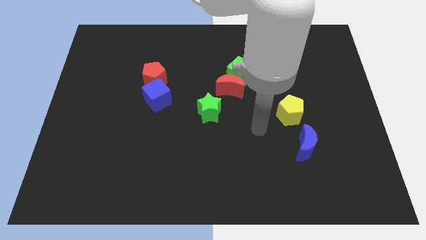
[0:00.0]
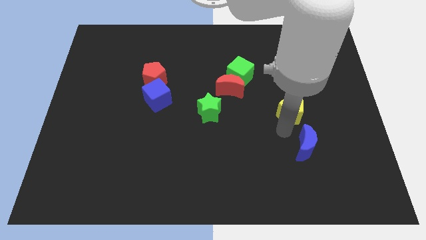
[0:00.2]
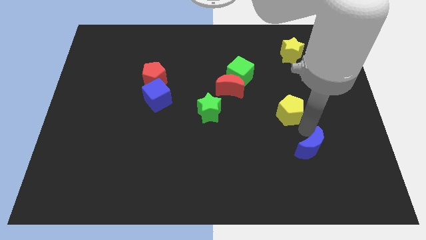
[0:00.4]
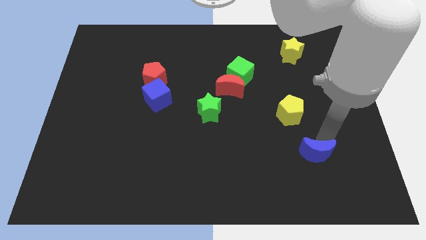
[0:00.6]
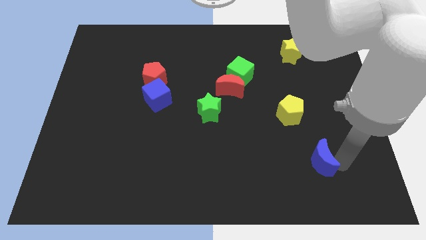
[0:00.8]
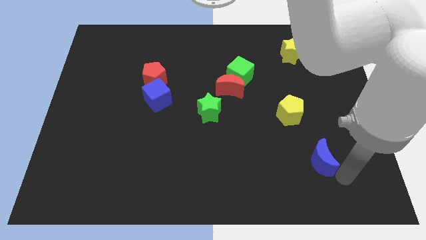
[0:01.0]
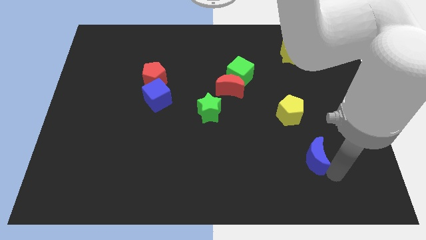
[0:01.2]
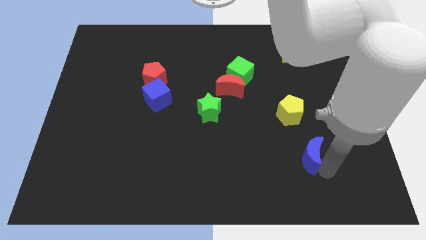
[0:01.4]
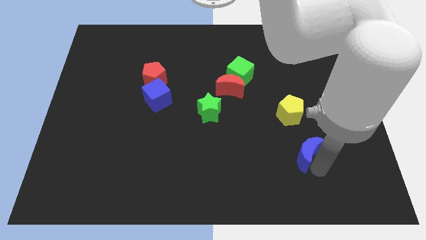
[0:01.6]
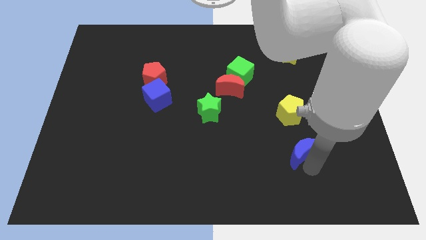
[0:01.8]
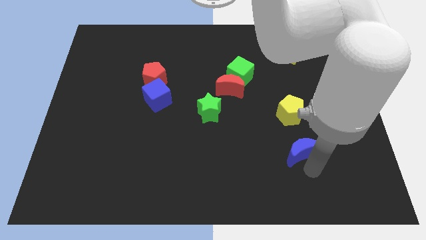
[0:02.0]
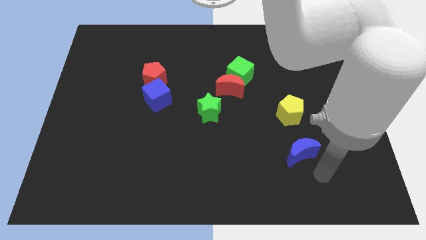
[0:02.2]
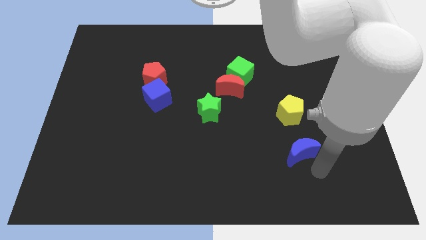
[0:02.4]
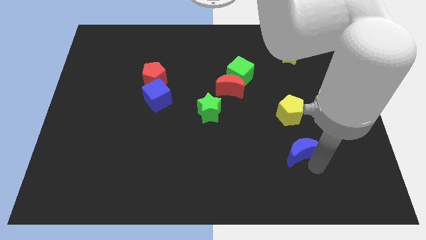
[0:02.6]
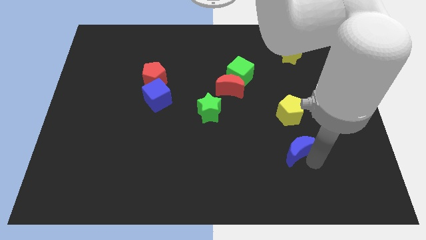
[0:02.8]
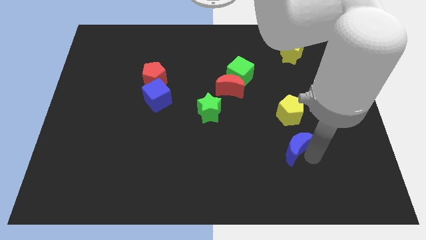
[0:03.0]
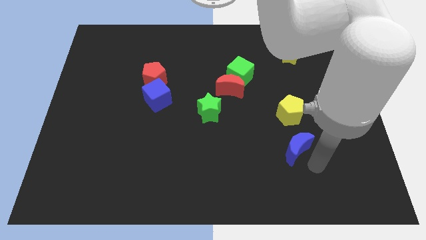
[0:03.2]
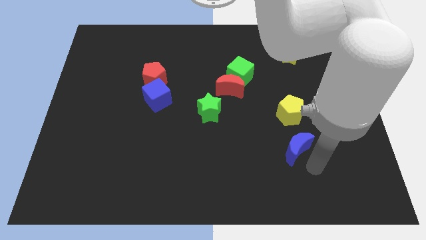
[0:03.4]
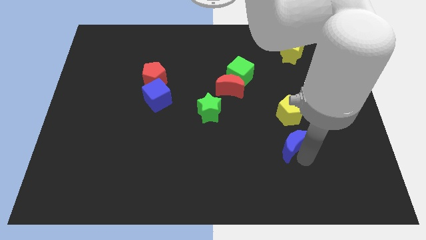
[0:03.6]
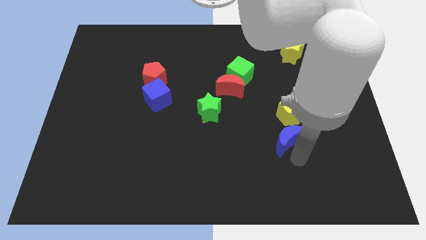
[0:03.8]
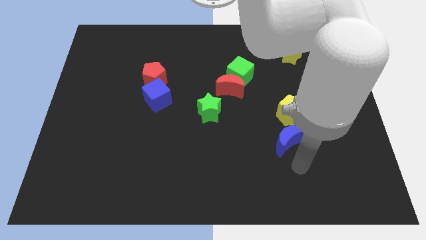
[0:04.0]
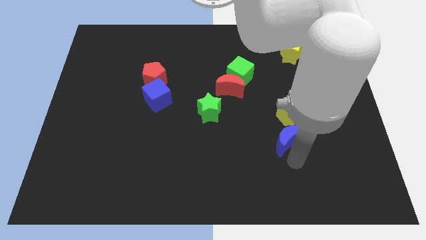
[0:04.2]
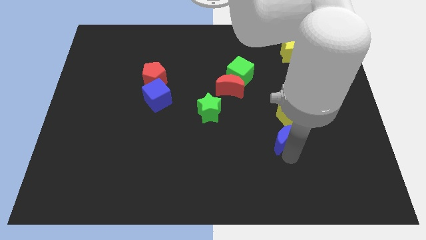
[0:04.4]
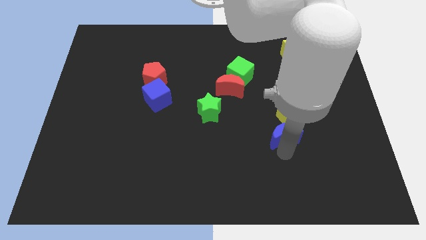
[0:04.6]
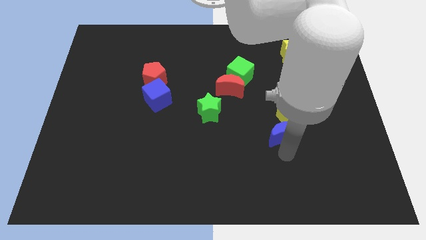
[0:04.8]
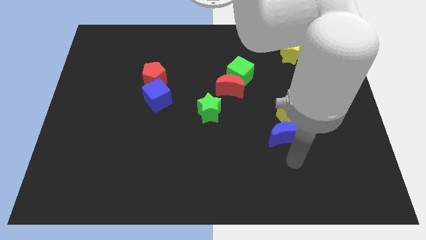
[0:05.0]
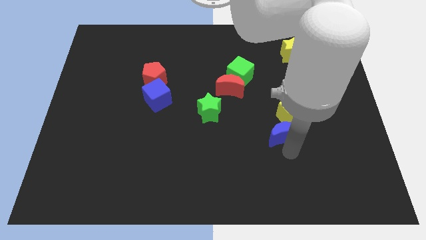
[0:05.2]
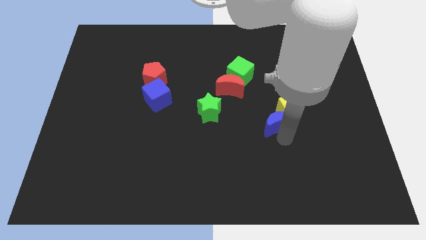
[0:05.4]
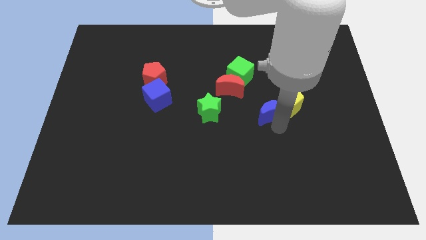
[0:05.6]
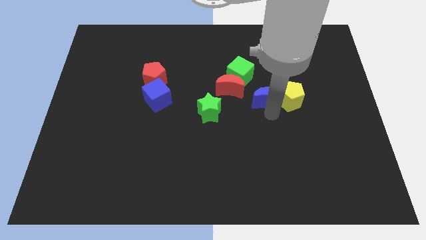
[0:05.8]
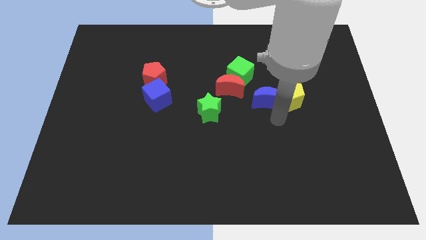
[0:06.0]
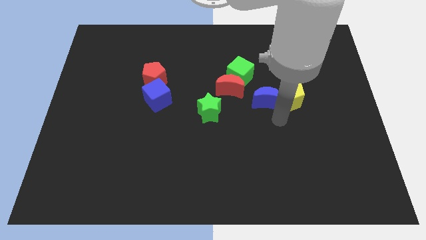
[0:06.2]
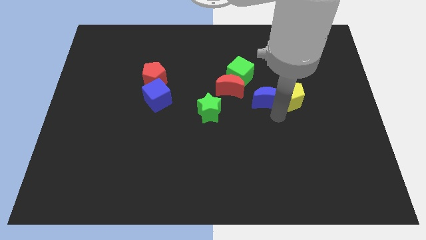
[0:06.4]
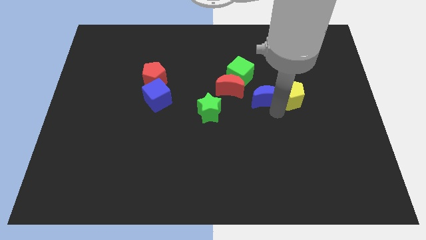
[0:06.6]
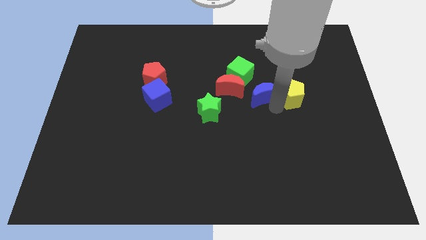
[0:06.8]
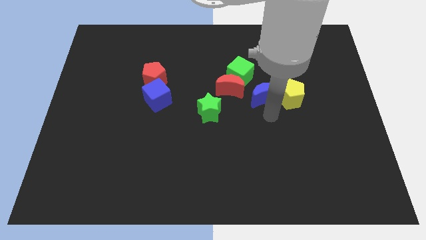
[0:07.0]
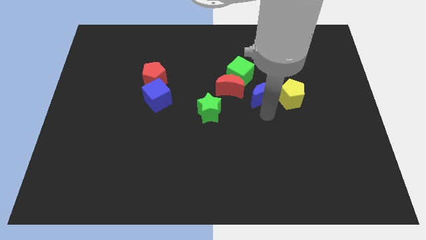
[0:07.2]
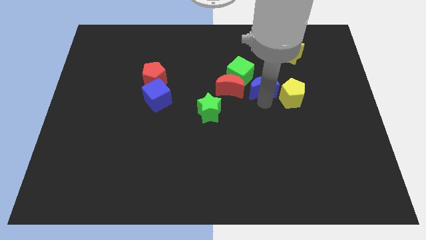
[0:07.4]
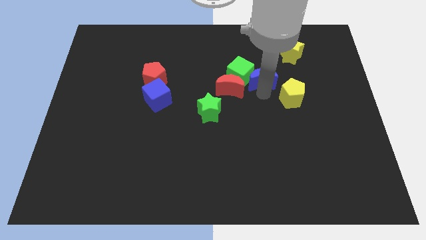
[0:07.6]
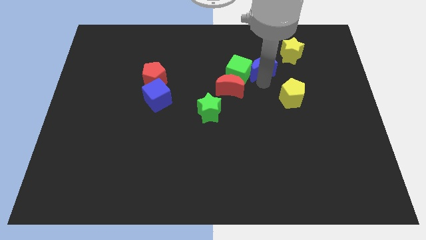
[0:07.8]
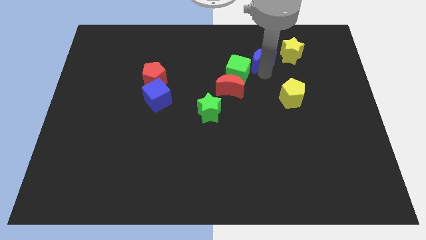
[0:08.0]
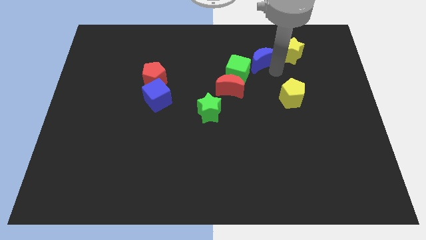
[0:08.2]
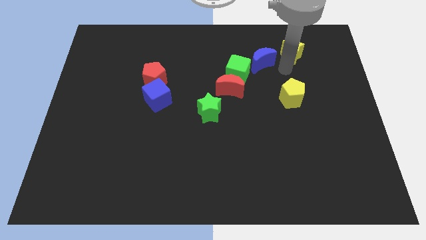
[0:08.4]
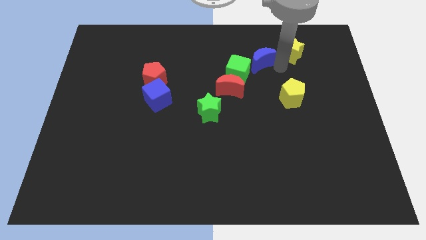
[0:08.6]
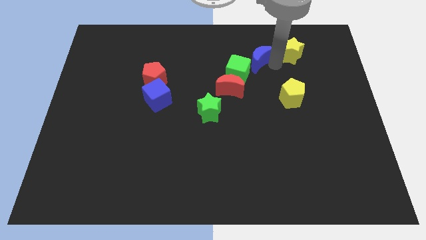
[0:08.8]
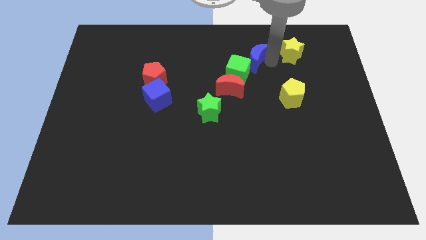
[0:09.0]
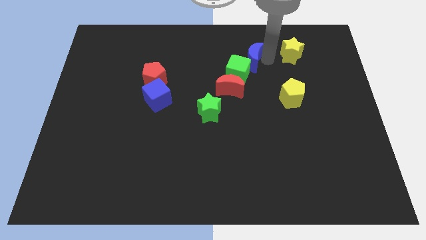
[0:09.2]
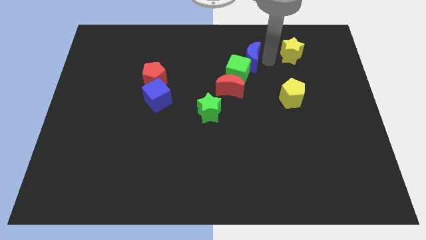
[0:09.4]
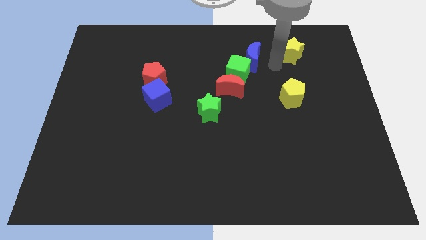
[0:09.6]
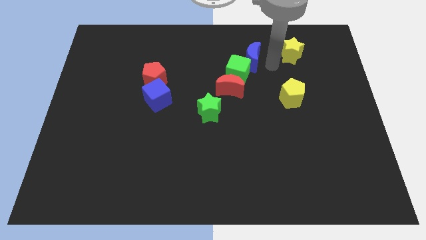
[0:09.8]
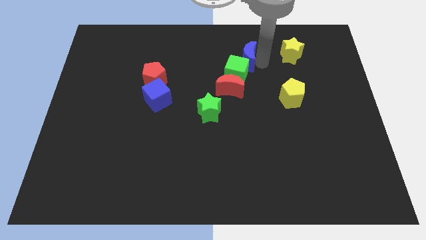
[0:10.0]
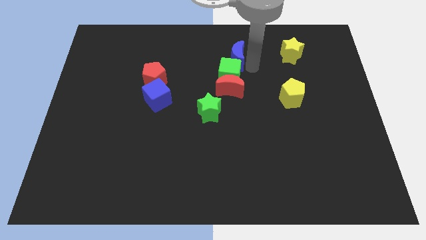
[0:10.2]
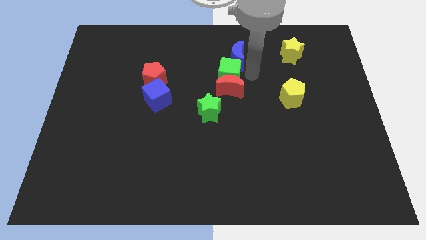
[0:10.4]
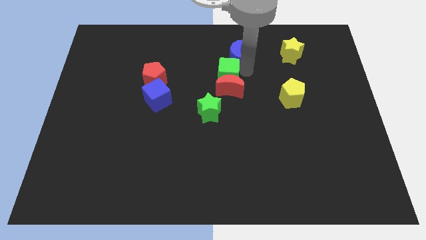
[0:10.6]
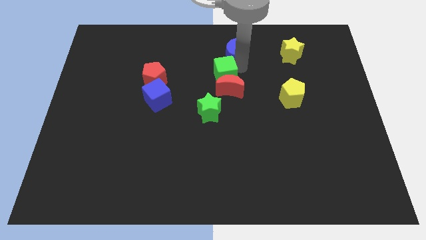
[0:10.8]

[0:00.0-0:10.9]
slide the blue moon to the top

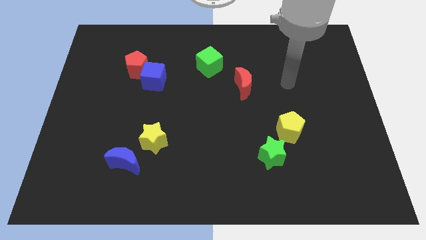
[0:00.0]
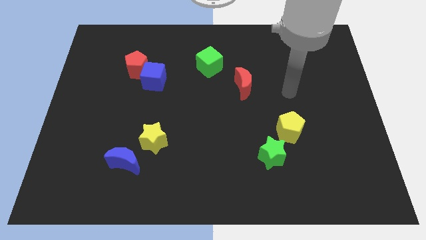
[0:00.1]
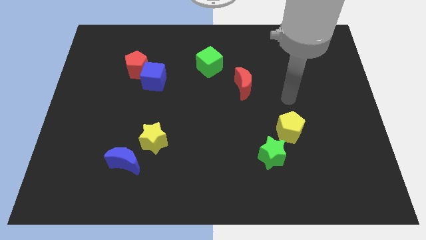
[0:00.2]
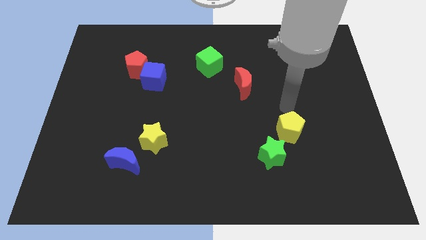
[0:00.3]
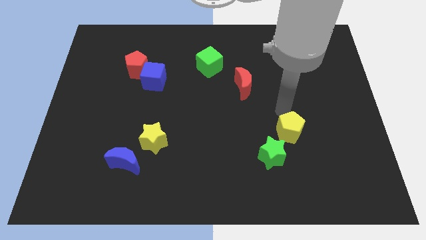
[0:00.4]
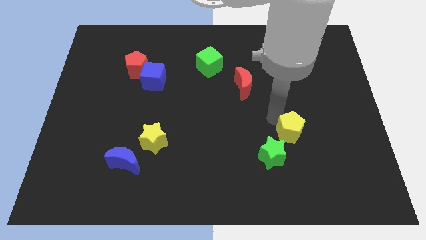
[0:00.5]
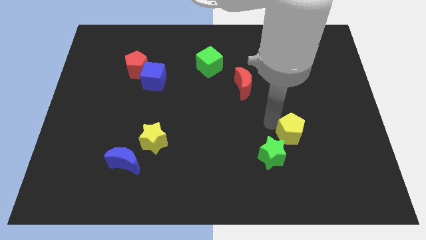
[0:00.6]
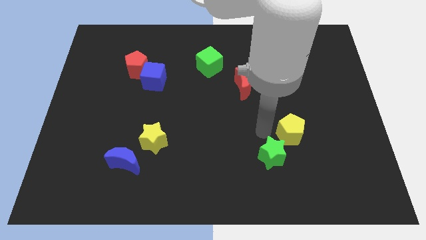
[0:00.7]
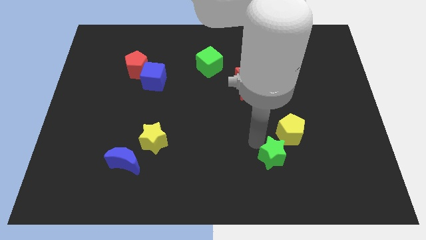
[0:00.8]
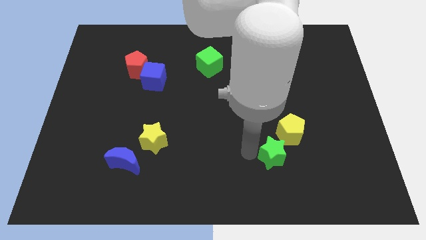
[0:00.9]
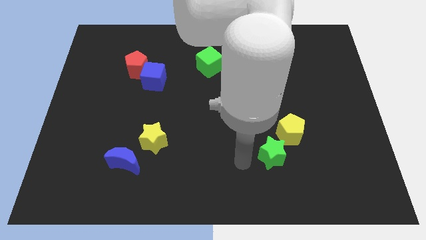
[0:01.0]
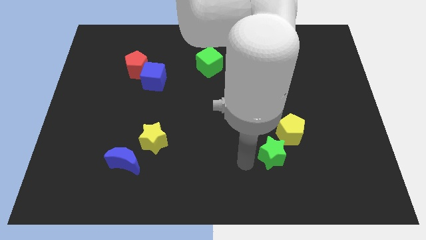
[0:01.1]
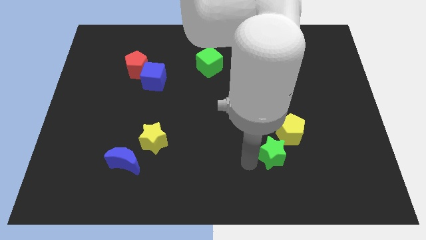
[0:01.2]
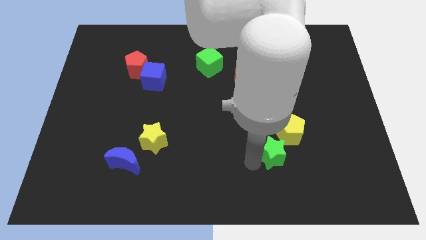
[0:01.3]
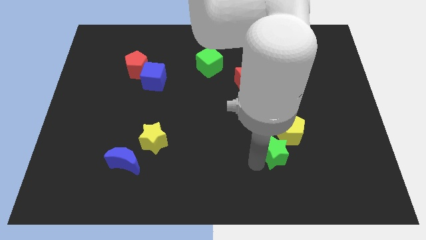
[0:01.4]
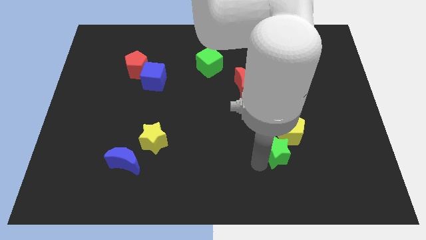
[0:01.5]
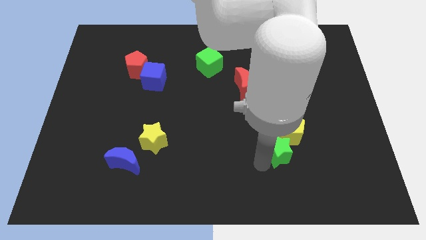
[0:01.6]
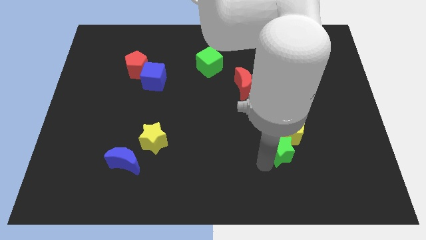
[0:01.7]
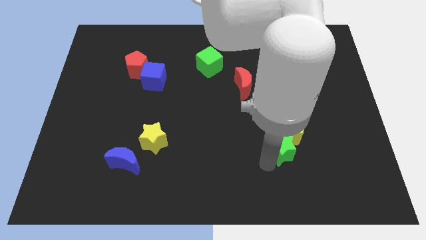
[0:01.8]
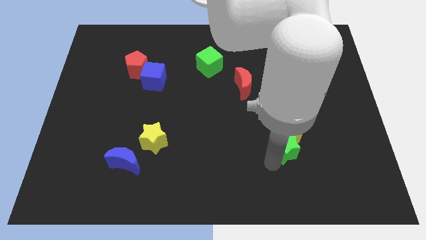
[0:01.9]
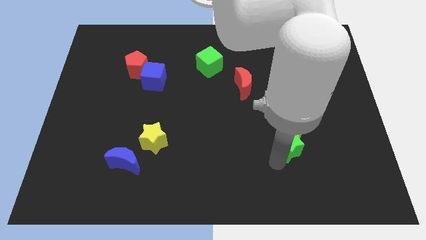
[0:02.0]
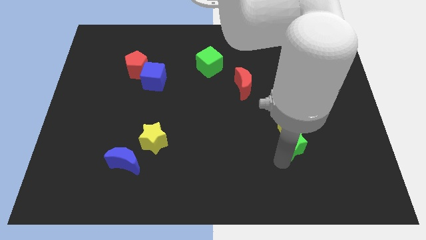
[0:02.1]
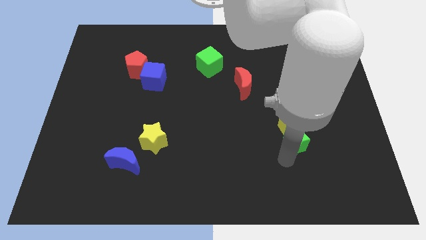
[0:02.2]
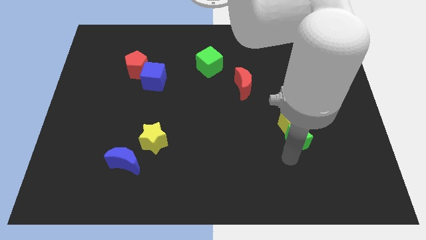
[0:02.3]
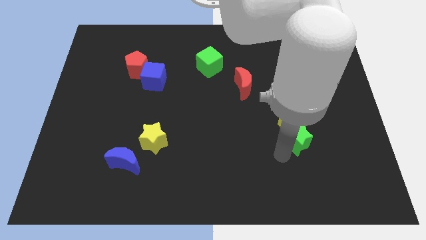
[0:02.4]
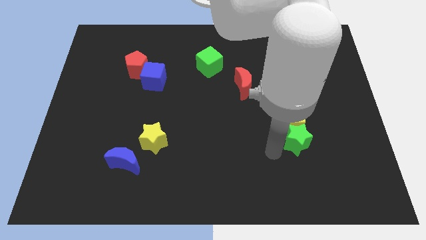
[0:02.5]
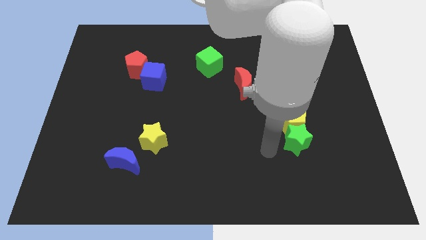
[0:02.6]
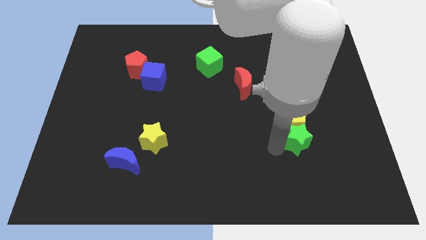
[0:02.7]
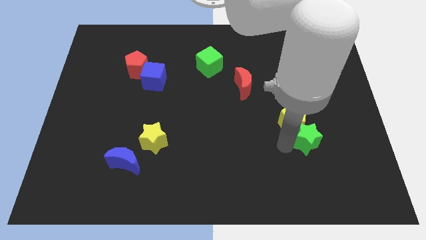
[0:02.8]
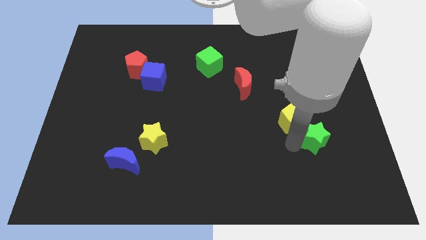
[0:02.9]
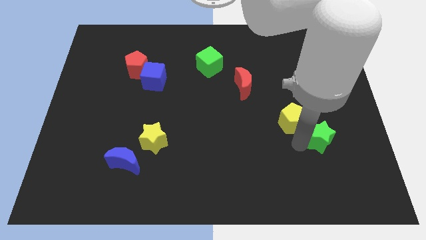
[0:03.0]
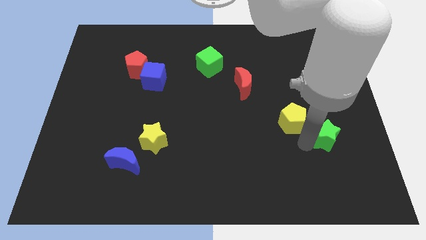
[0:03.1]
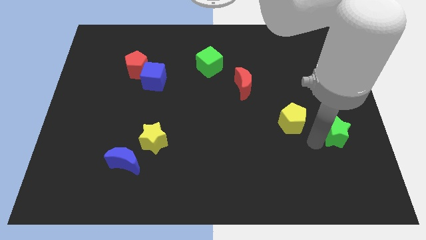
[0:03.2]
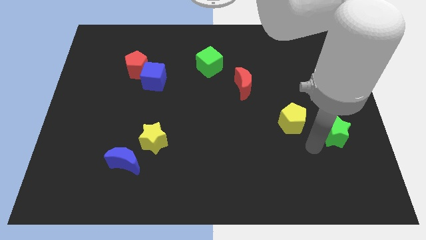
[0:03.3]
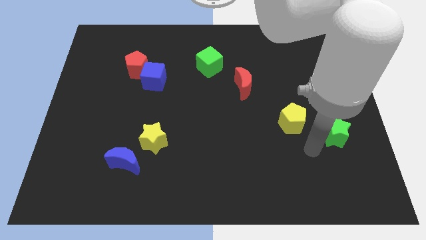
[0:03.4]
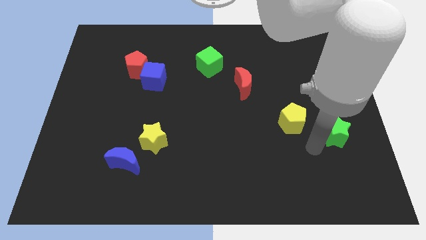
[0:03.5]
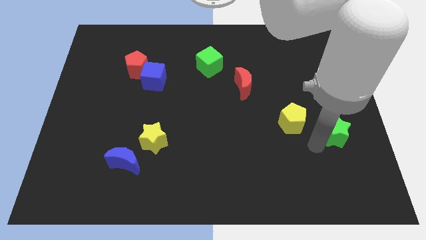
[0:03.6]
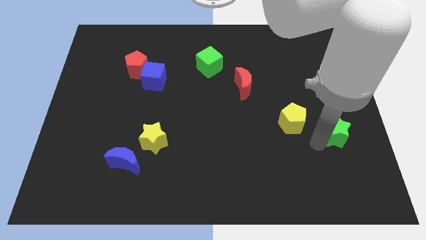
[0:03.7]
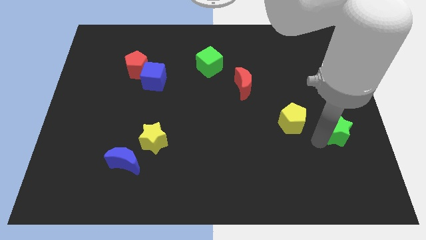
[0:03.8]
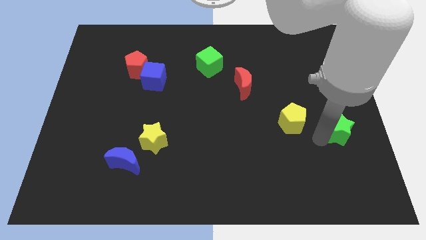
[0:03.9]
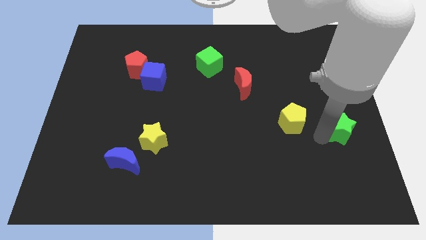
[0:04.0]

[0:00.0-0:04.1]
move the green star to the right side
